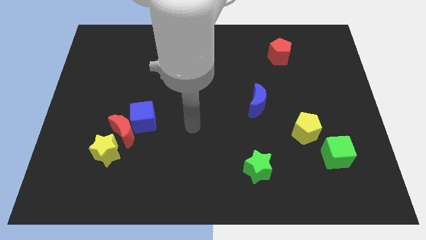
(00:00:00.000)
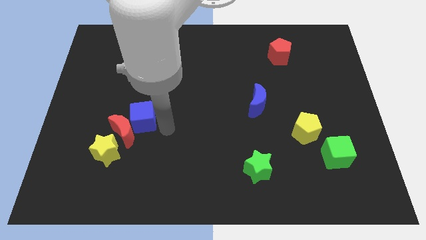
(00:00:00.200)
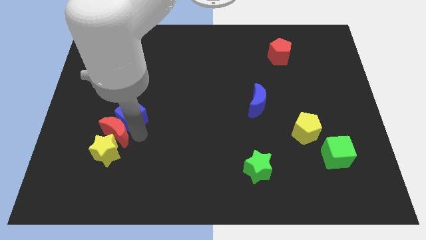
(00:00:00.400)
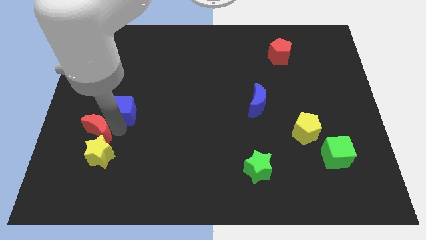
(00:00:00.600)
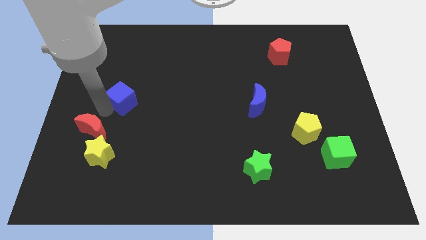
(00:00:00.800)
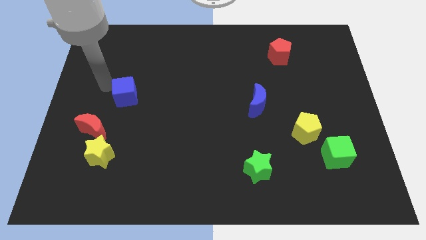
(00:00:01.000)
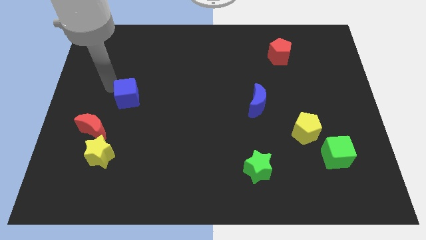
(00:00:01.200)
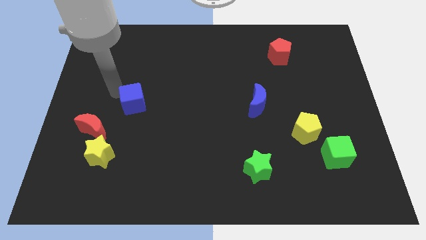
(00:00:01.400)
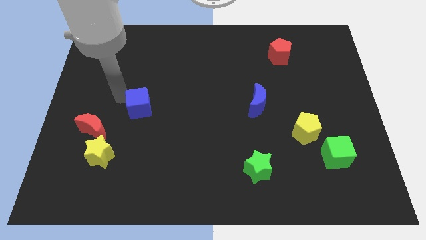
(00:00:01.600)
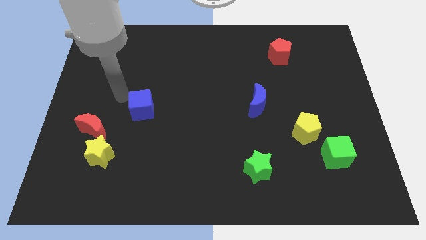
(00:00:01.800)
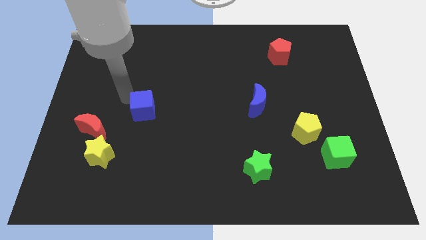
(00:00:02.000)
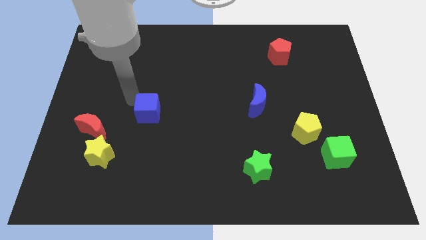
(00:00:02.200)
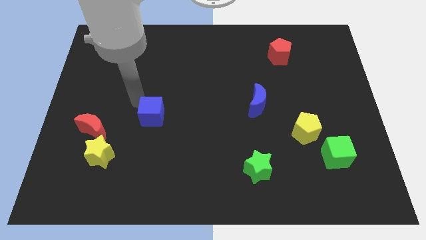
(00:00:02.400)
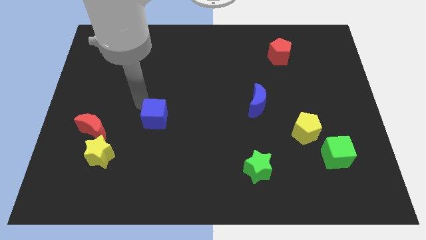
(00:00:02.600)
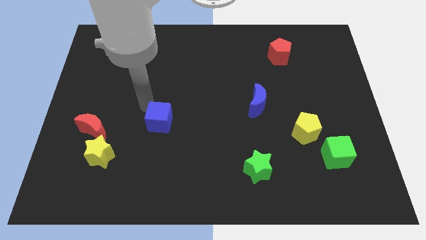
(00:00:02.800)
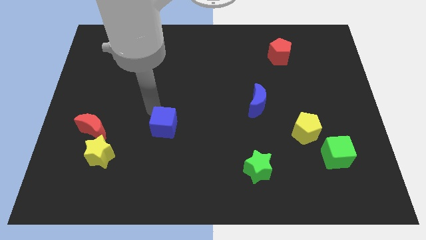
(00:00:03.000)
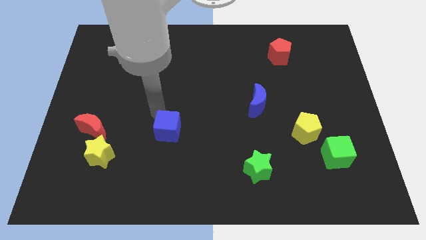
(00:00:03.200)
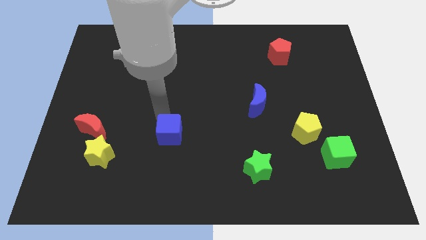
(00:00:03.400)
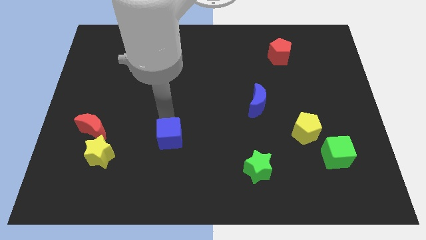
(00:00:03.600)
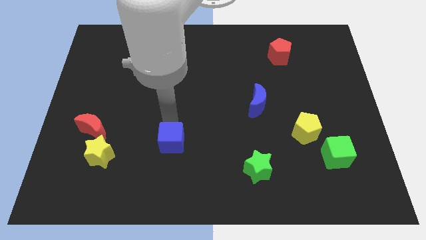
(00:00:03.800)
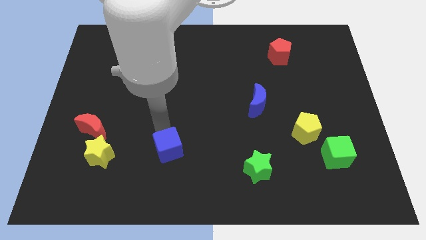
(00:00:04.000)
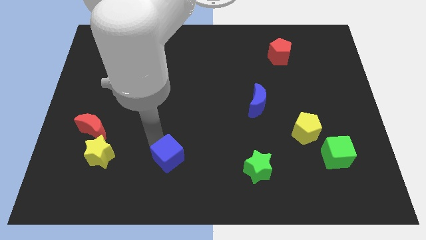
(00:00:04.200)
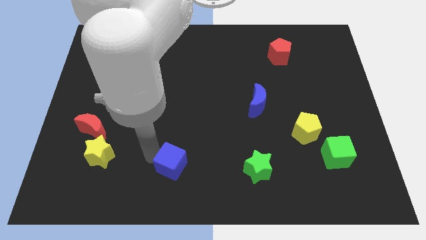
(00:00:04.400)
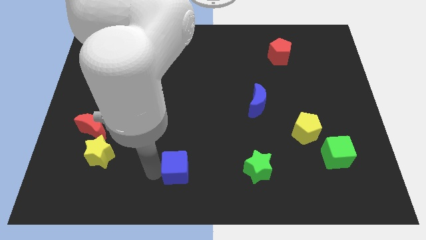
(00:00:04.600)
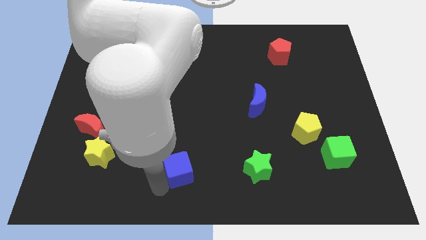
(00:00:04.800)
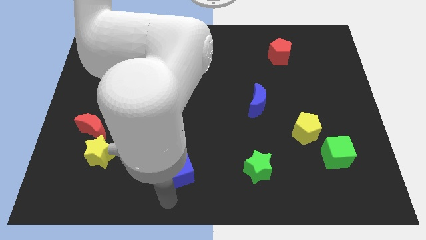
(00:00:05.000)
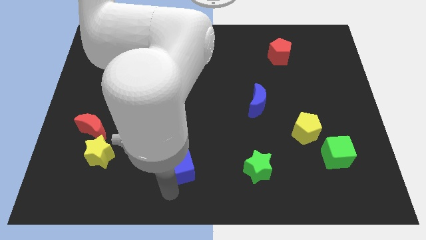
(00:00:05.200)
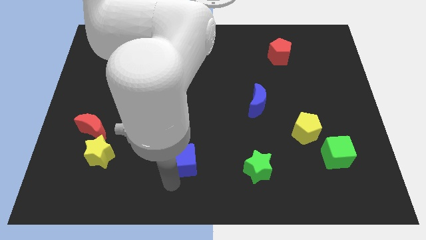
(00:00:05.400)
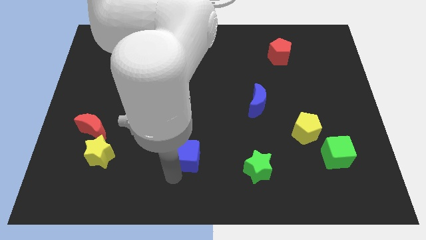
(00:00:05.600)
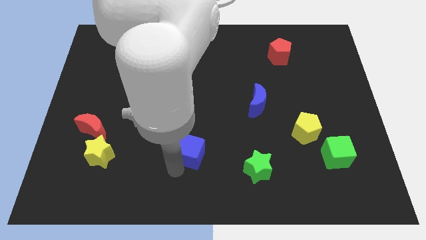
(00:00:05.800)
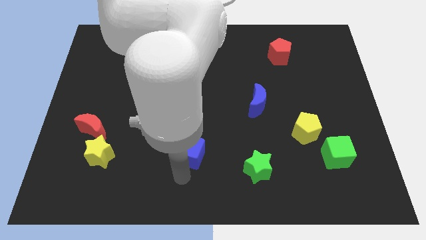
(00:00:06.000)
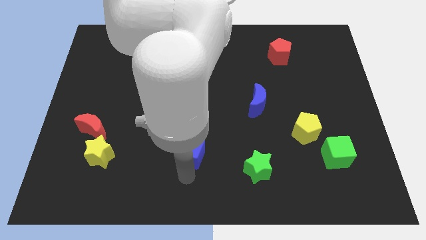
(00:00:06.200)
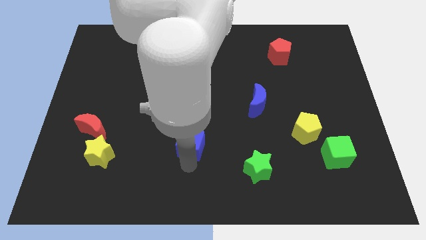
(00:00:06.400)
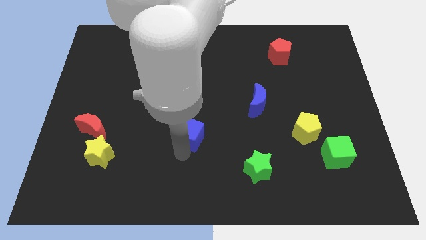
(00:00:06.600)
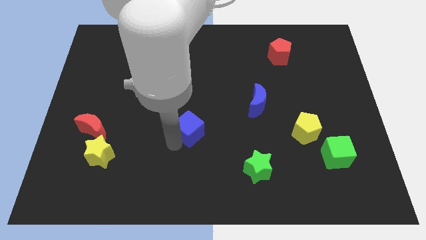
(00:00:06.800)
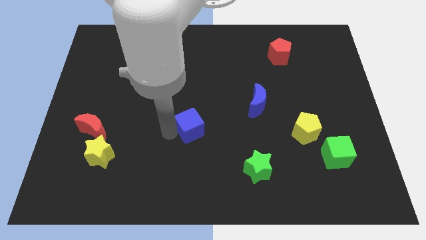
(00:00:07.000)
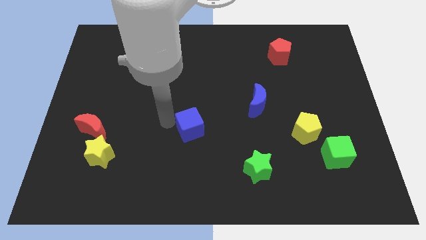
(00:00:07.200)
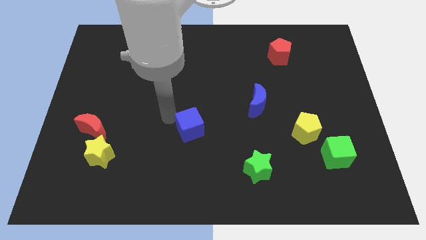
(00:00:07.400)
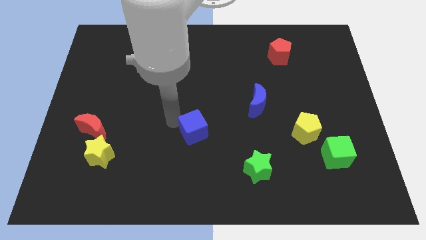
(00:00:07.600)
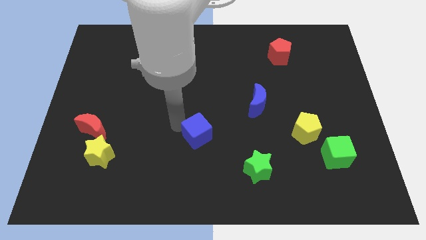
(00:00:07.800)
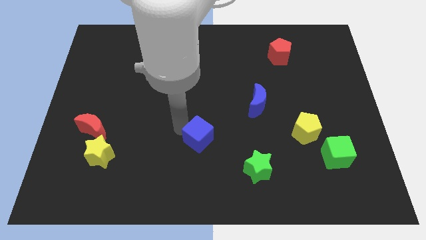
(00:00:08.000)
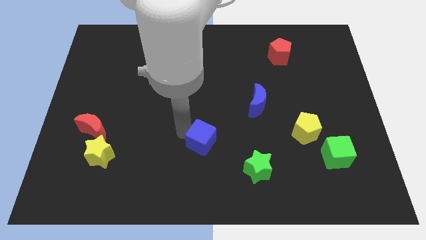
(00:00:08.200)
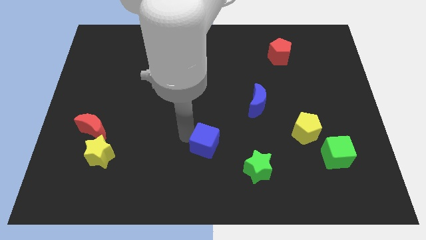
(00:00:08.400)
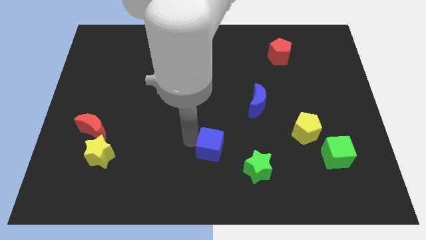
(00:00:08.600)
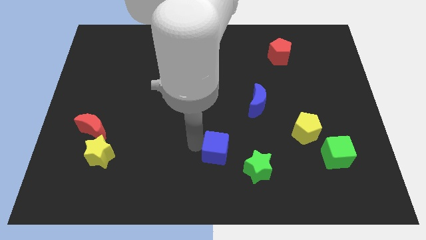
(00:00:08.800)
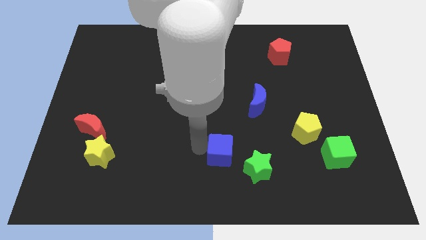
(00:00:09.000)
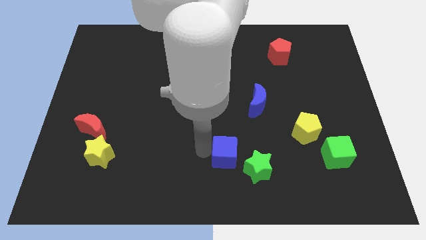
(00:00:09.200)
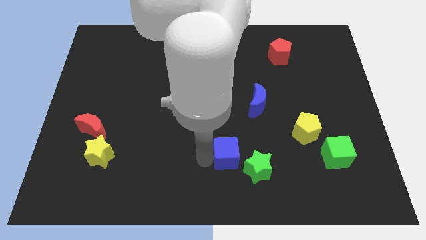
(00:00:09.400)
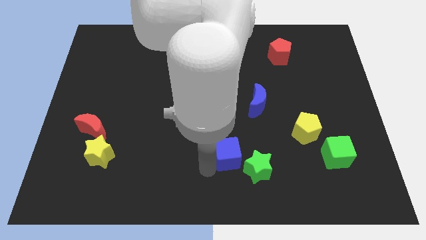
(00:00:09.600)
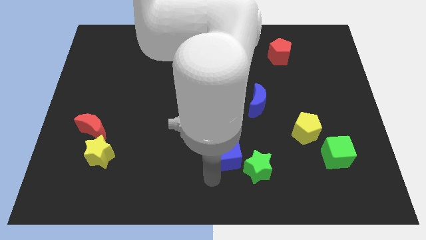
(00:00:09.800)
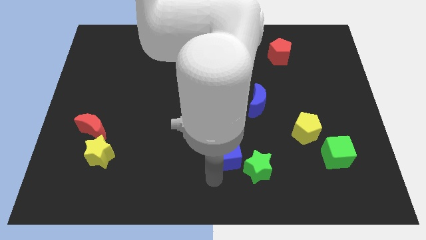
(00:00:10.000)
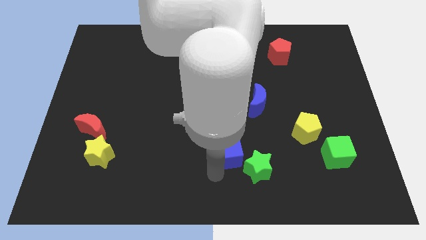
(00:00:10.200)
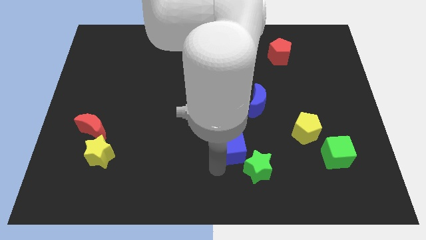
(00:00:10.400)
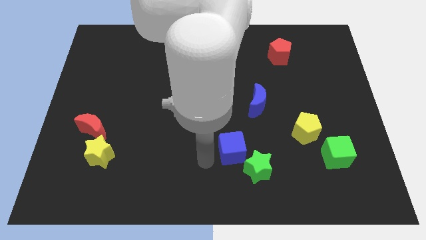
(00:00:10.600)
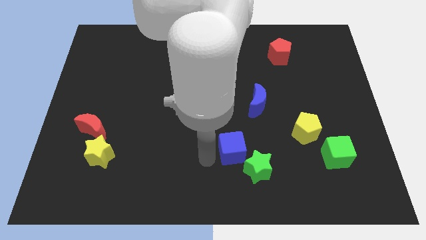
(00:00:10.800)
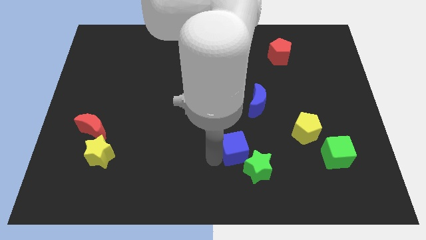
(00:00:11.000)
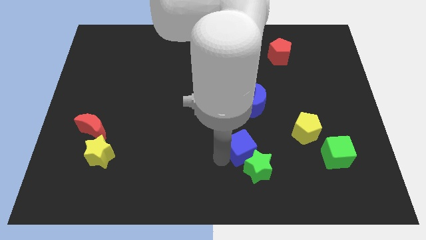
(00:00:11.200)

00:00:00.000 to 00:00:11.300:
put the blue cube to the bottom of the blue moon
